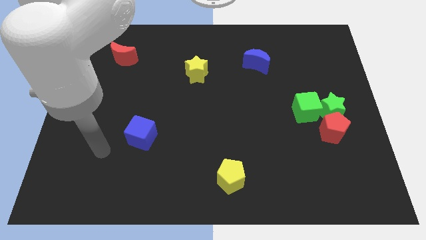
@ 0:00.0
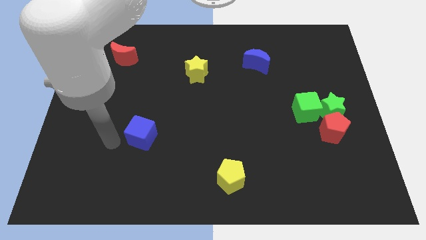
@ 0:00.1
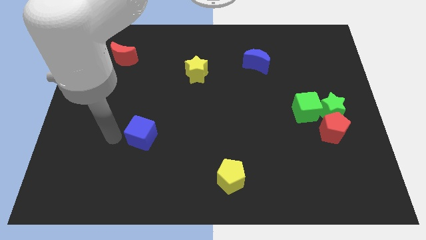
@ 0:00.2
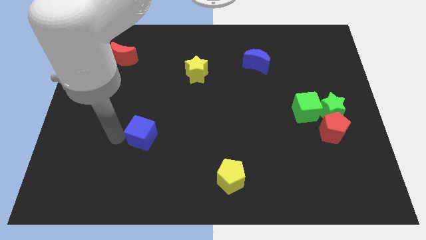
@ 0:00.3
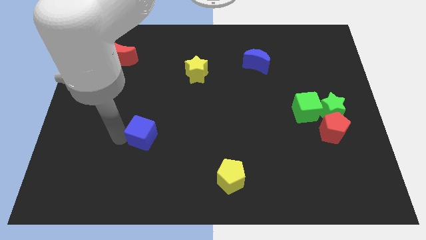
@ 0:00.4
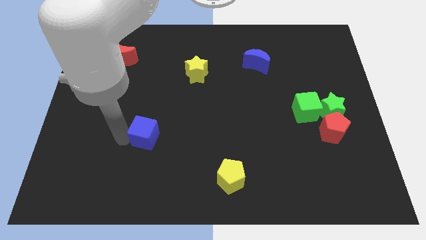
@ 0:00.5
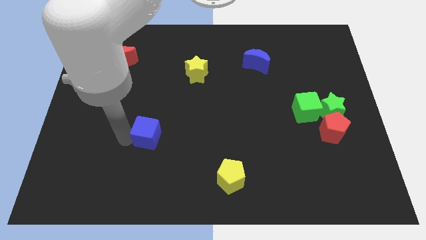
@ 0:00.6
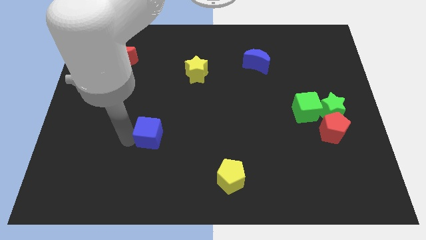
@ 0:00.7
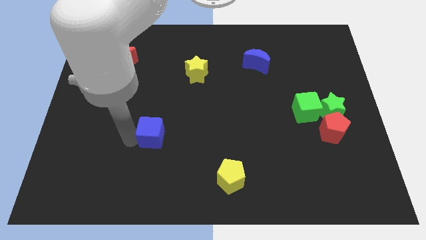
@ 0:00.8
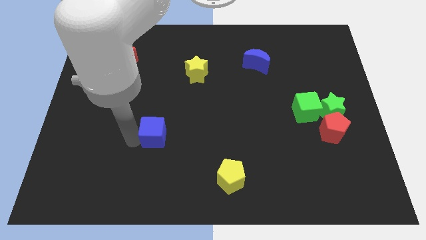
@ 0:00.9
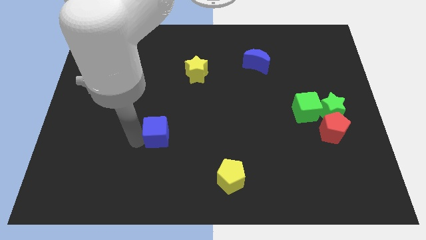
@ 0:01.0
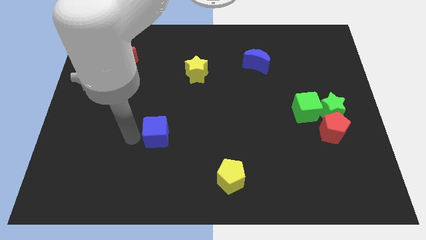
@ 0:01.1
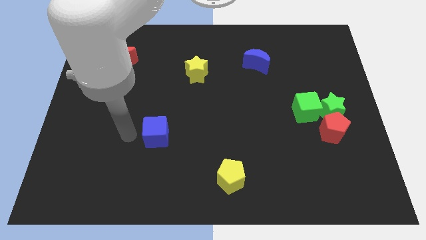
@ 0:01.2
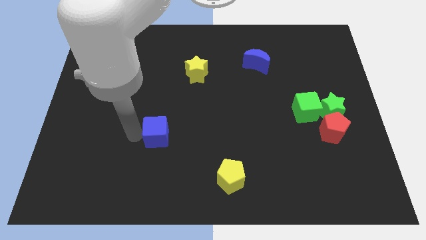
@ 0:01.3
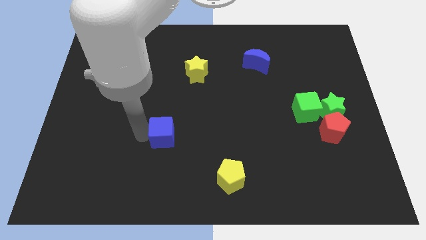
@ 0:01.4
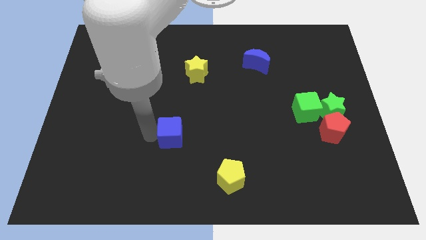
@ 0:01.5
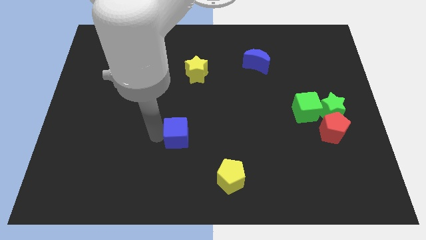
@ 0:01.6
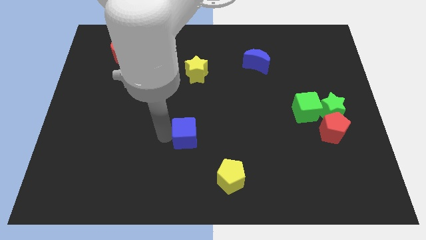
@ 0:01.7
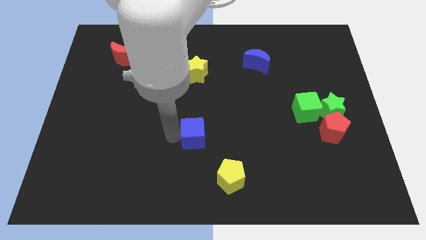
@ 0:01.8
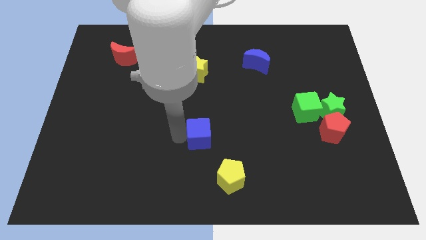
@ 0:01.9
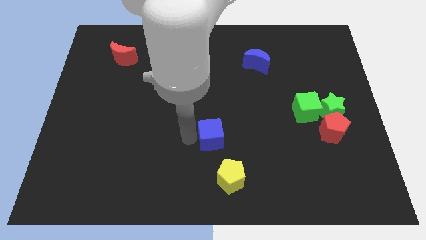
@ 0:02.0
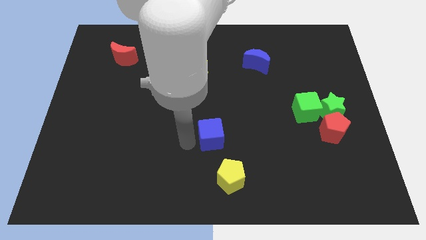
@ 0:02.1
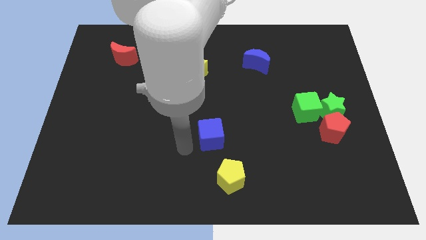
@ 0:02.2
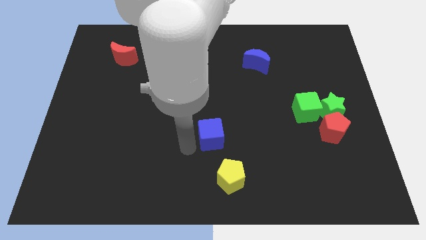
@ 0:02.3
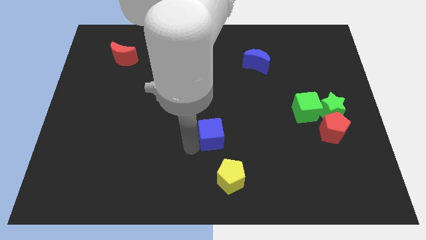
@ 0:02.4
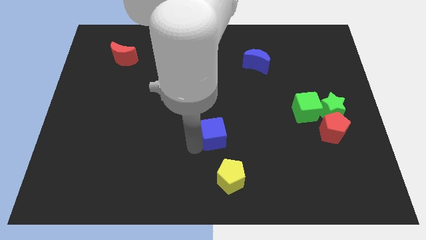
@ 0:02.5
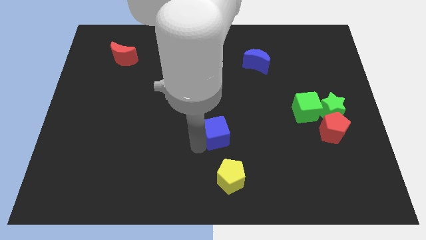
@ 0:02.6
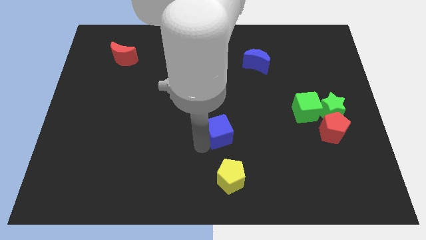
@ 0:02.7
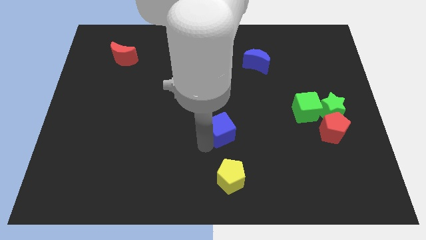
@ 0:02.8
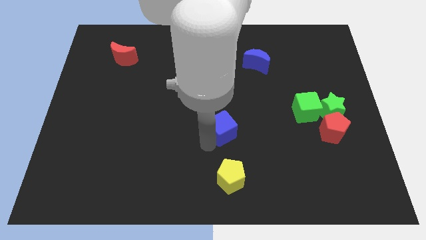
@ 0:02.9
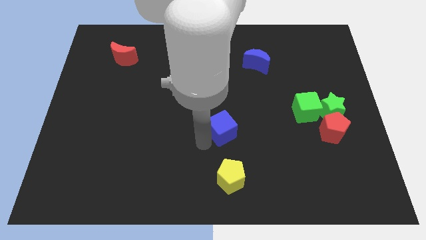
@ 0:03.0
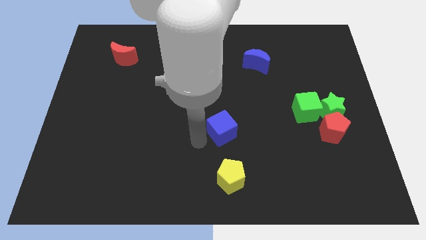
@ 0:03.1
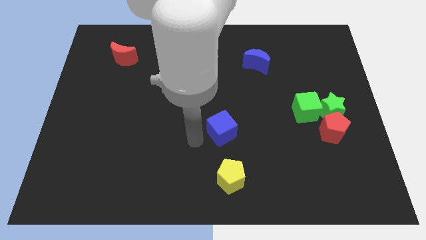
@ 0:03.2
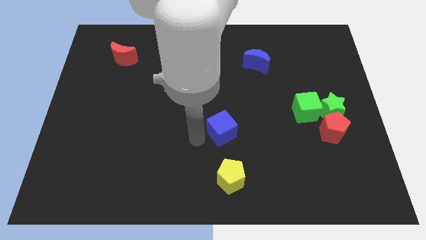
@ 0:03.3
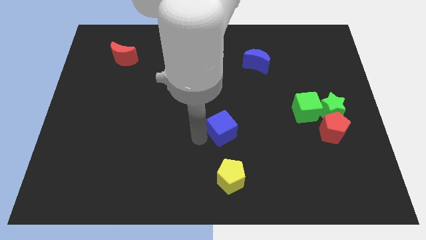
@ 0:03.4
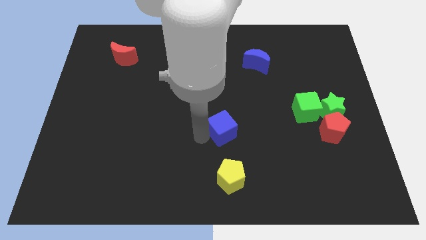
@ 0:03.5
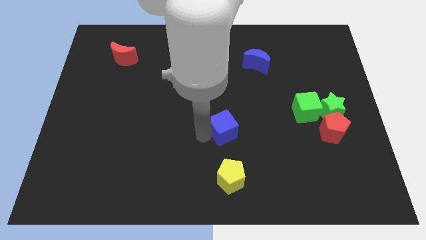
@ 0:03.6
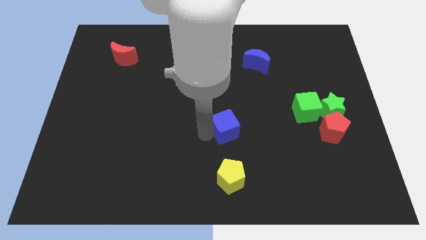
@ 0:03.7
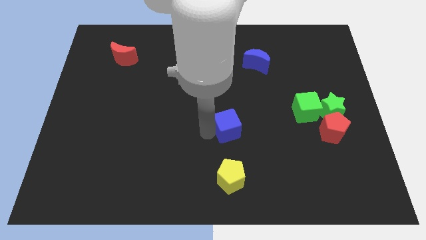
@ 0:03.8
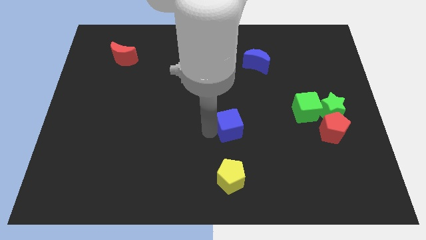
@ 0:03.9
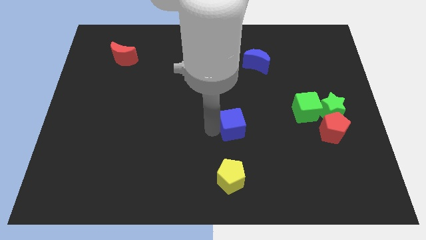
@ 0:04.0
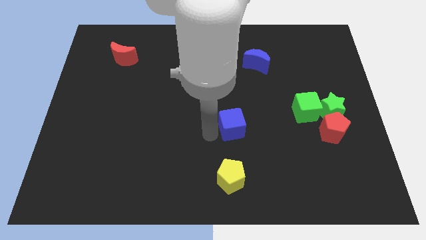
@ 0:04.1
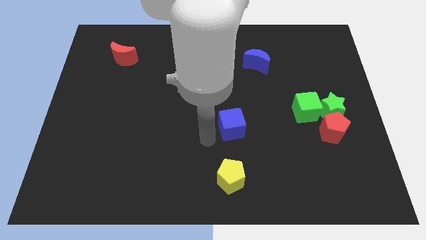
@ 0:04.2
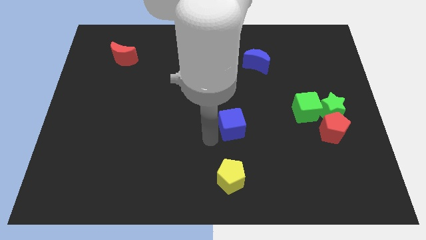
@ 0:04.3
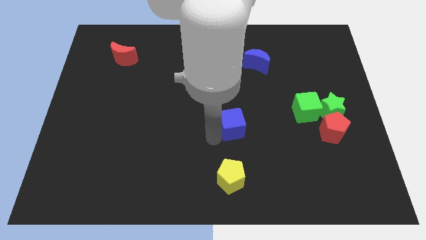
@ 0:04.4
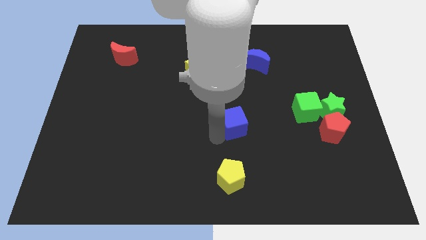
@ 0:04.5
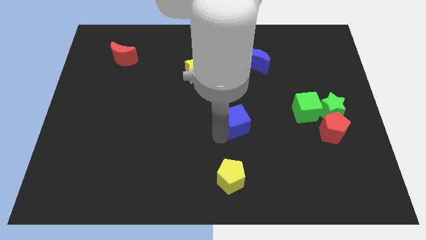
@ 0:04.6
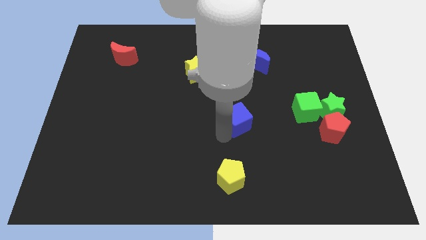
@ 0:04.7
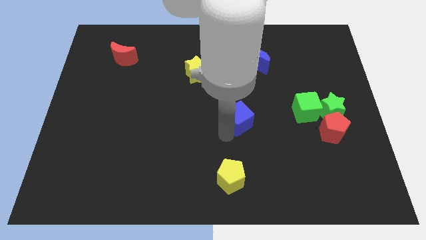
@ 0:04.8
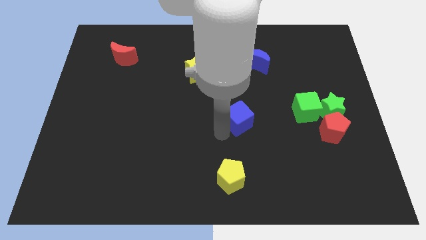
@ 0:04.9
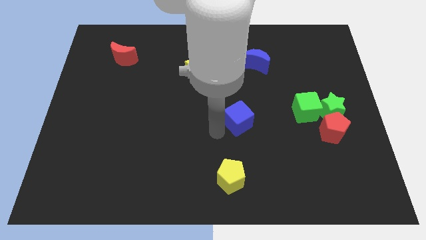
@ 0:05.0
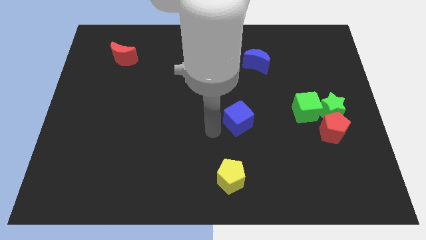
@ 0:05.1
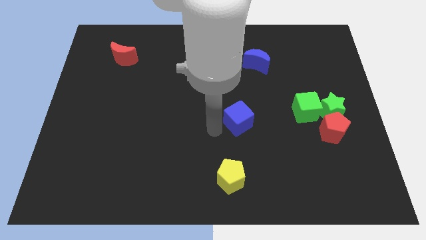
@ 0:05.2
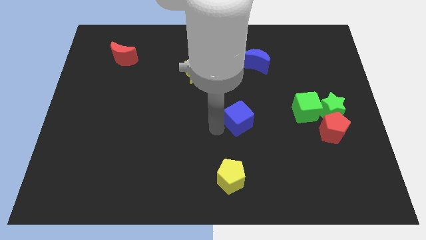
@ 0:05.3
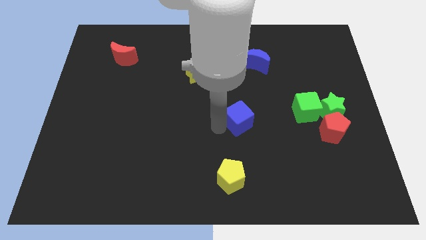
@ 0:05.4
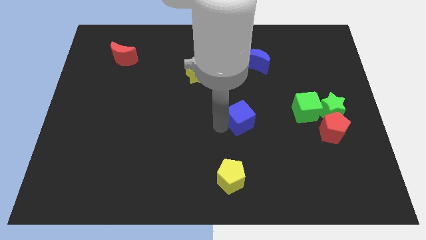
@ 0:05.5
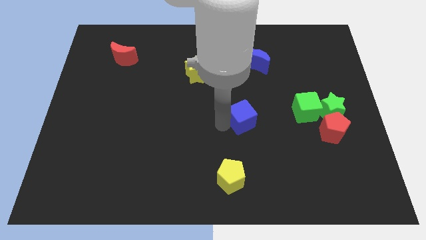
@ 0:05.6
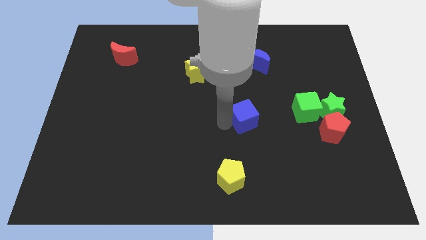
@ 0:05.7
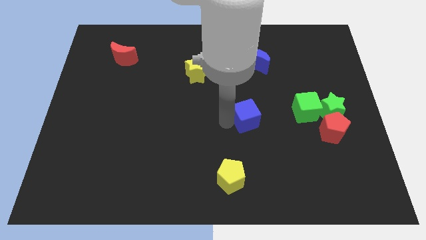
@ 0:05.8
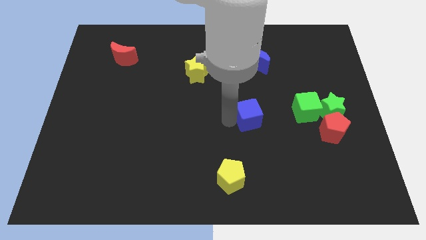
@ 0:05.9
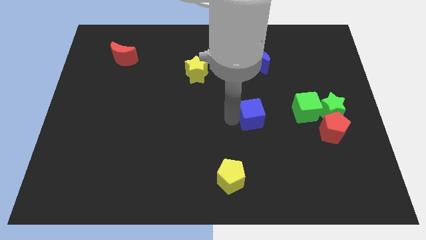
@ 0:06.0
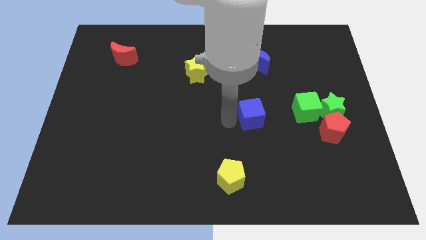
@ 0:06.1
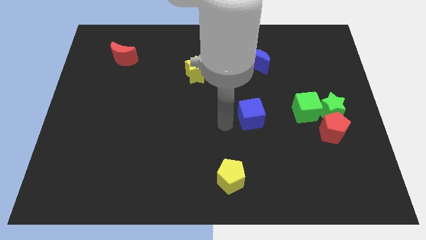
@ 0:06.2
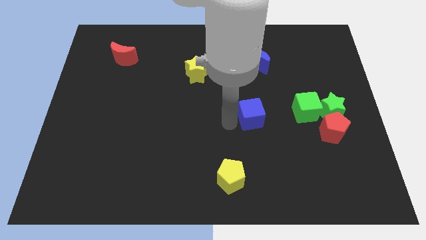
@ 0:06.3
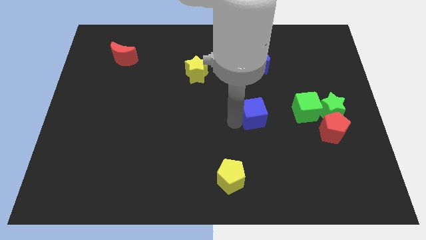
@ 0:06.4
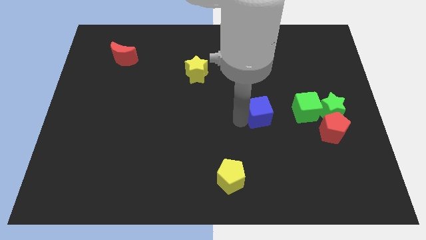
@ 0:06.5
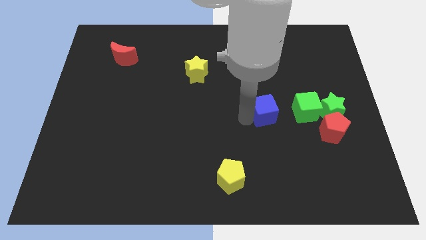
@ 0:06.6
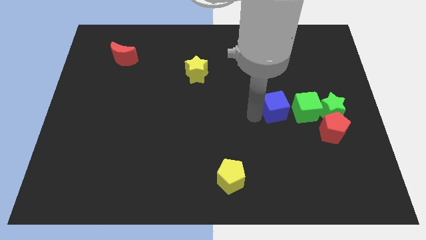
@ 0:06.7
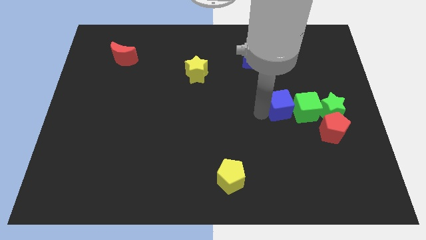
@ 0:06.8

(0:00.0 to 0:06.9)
slide the blue cube next to the green cube

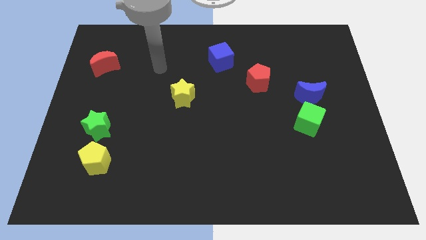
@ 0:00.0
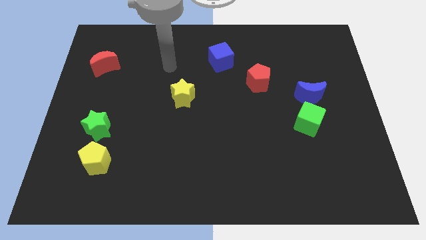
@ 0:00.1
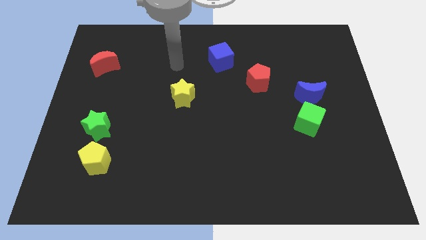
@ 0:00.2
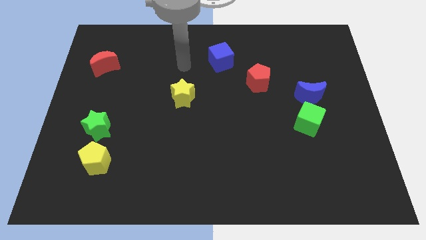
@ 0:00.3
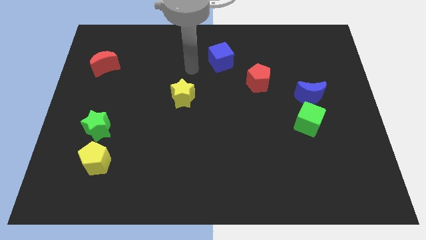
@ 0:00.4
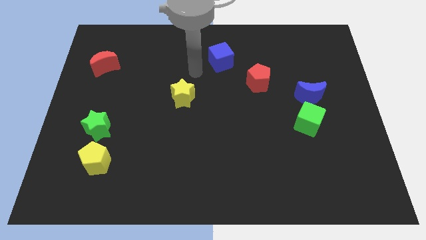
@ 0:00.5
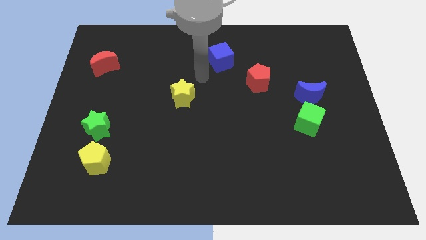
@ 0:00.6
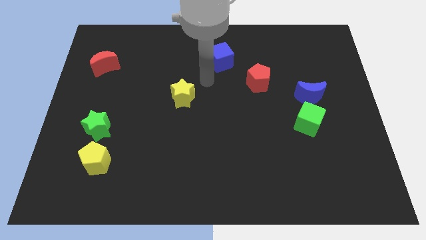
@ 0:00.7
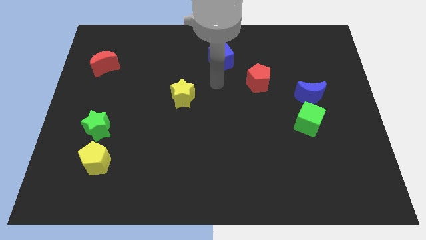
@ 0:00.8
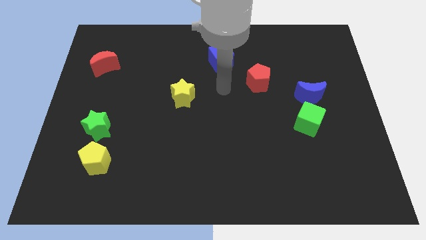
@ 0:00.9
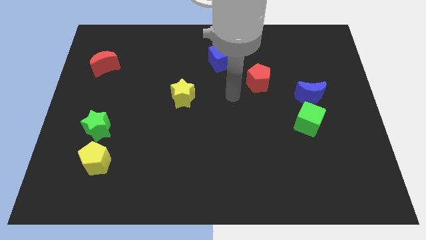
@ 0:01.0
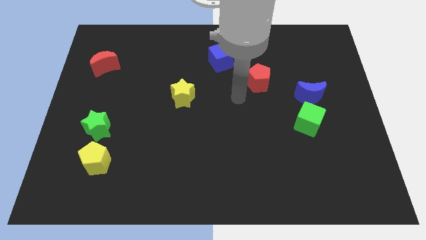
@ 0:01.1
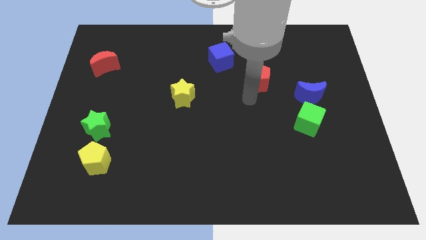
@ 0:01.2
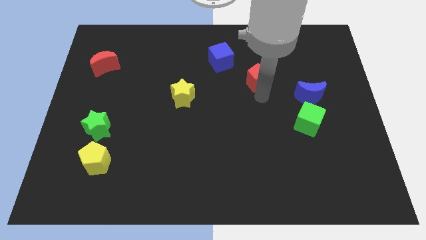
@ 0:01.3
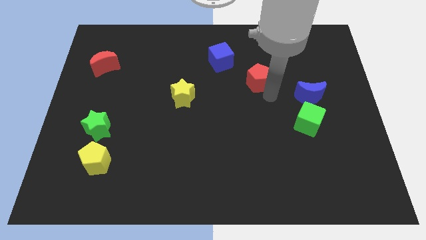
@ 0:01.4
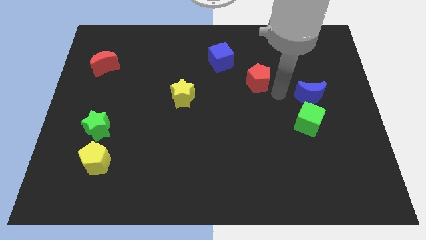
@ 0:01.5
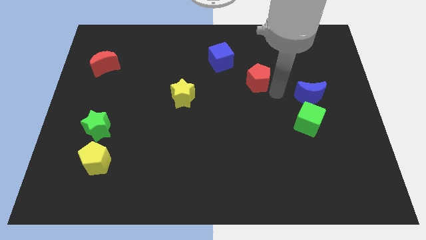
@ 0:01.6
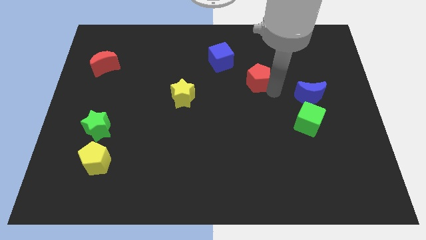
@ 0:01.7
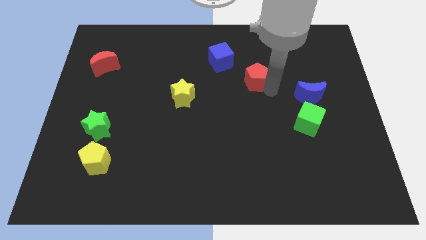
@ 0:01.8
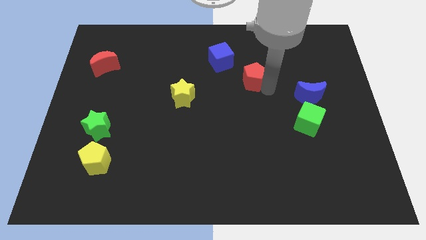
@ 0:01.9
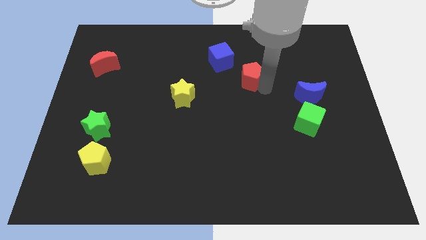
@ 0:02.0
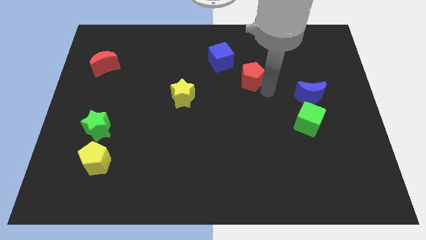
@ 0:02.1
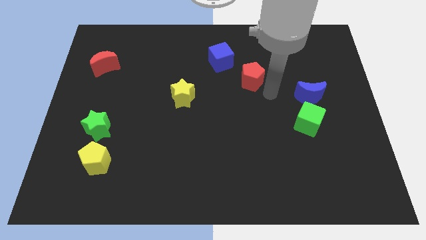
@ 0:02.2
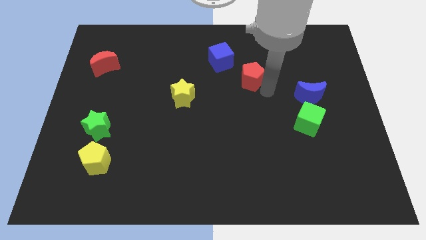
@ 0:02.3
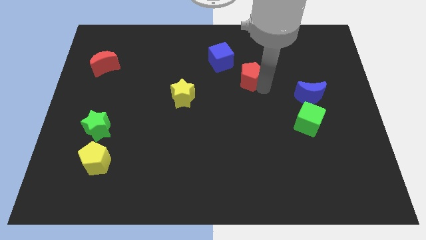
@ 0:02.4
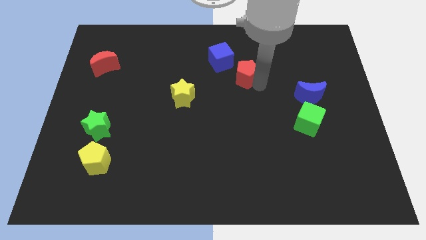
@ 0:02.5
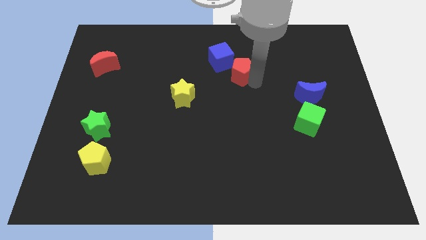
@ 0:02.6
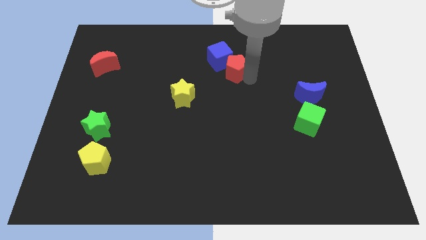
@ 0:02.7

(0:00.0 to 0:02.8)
move the red pentagon close to the blue cube
